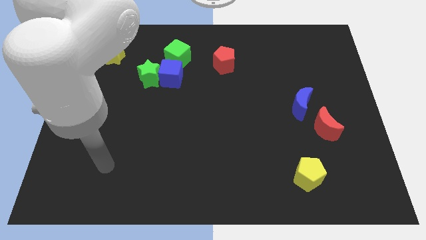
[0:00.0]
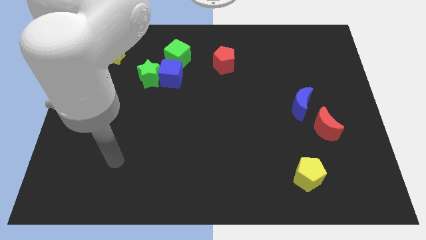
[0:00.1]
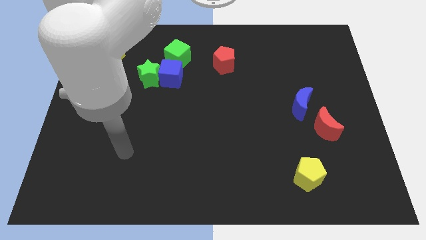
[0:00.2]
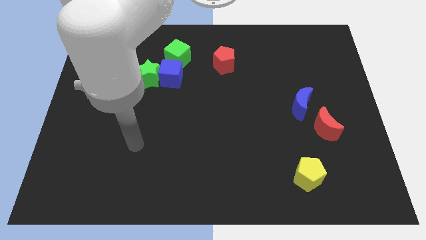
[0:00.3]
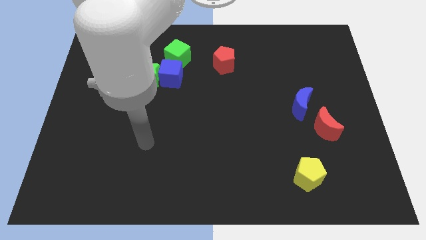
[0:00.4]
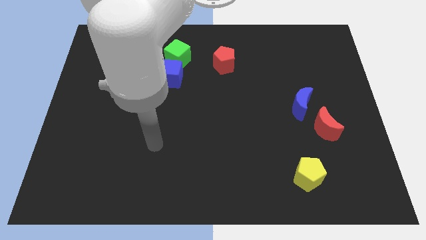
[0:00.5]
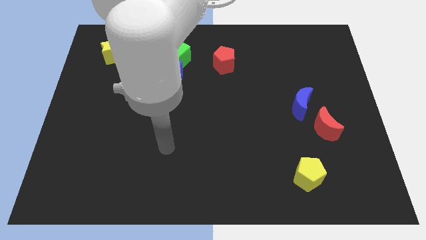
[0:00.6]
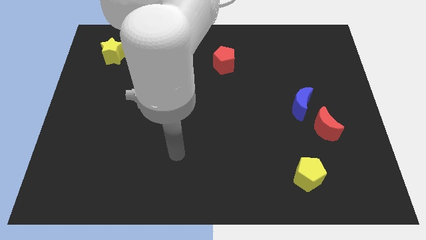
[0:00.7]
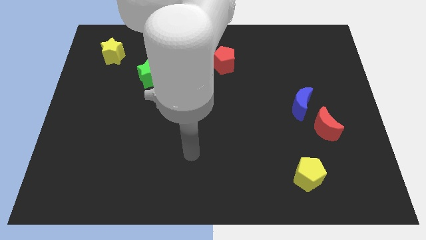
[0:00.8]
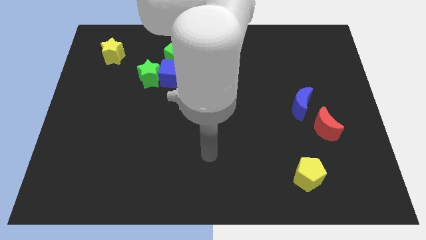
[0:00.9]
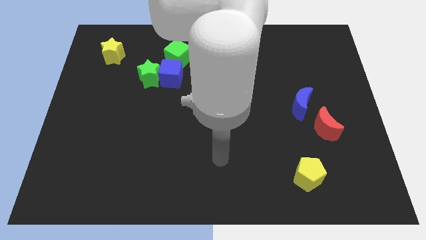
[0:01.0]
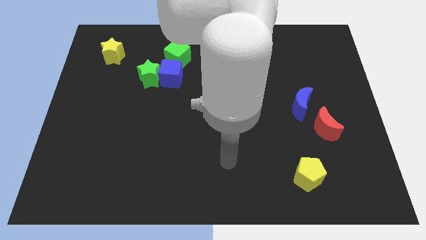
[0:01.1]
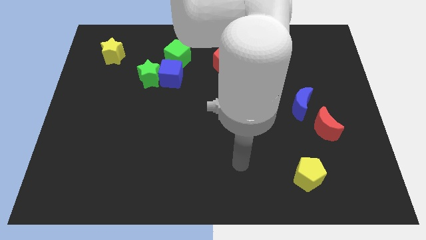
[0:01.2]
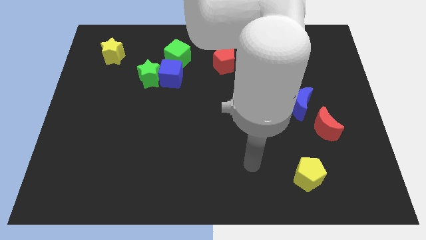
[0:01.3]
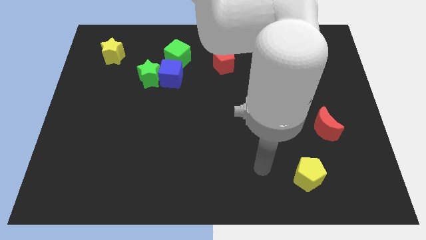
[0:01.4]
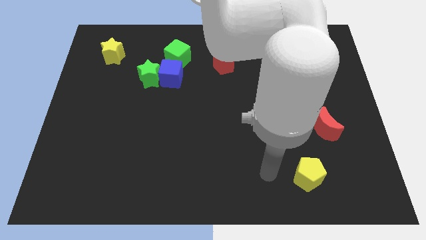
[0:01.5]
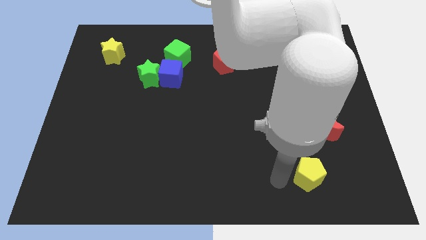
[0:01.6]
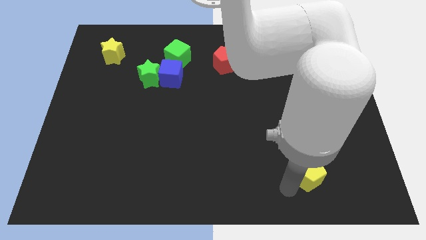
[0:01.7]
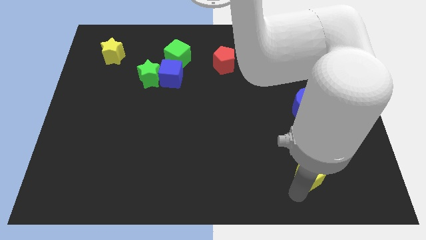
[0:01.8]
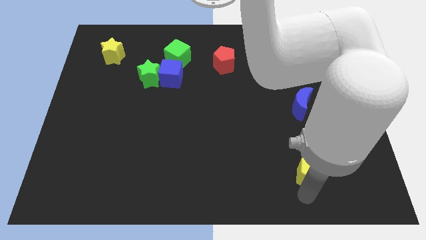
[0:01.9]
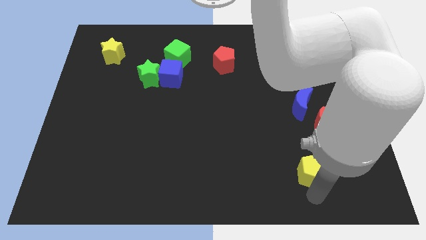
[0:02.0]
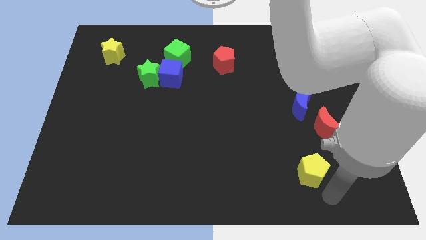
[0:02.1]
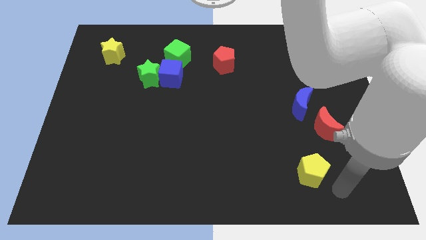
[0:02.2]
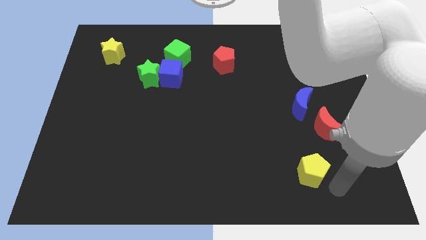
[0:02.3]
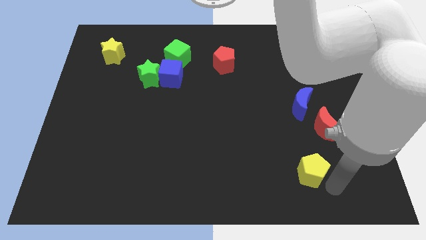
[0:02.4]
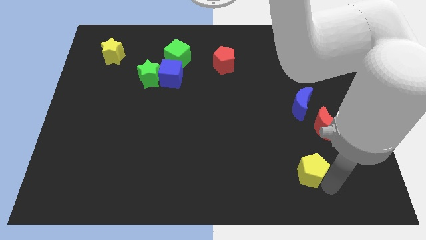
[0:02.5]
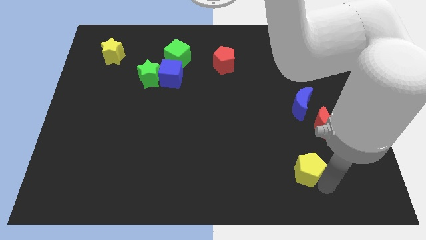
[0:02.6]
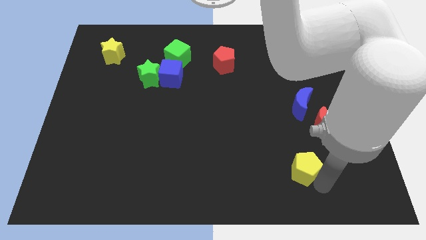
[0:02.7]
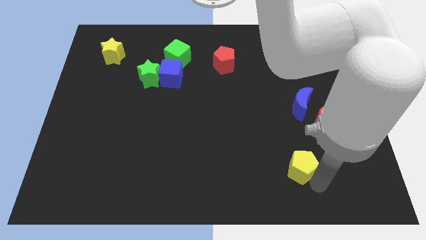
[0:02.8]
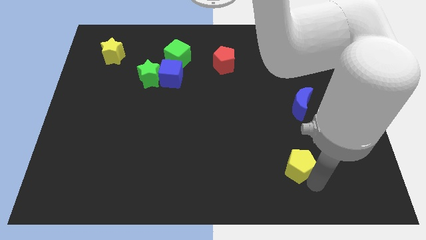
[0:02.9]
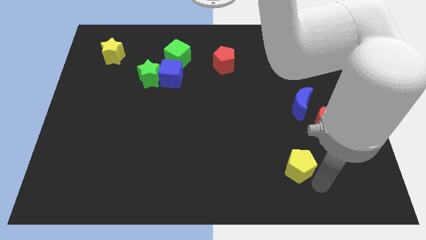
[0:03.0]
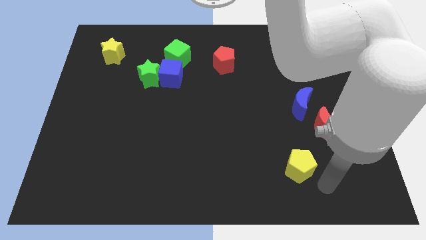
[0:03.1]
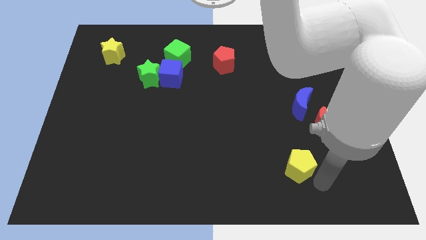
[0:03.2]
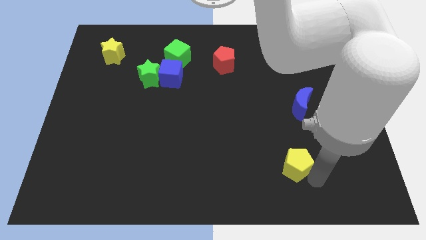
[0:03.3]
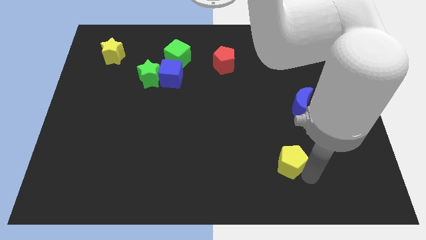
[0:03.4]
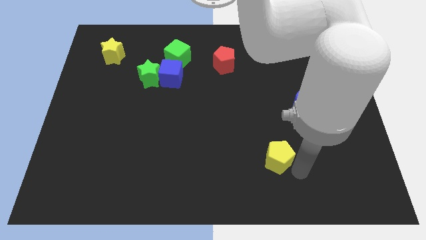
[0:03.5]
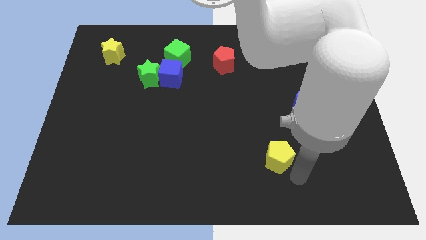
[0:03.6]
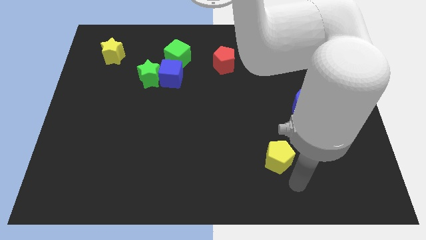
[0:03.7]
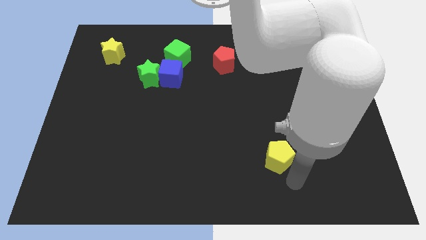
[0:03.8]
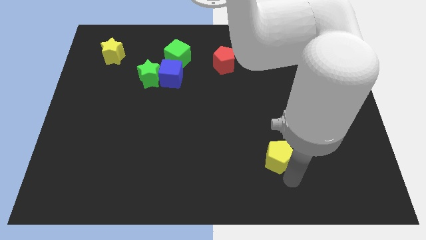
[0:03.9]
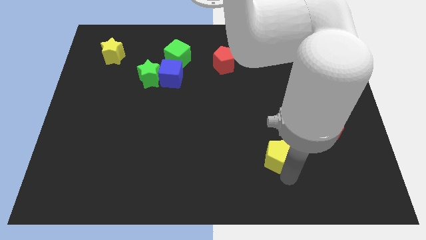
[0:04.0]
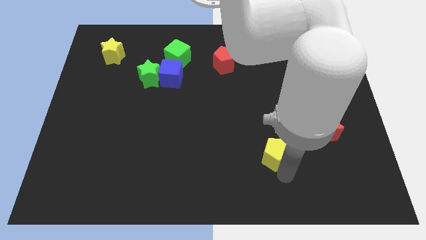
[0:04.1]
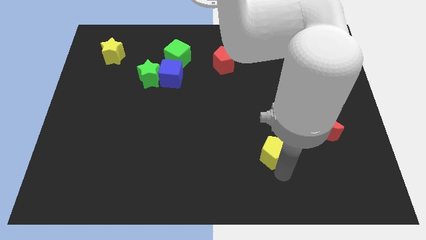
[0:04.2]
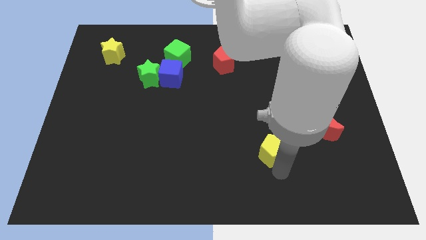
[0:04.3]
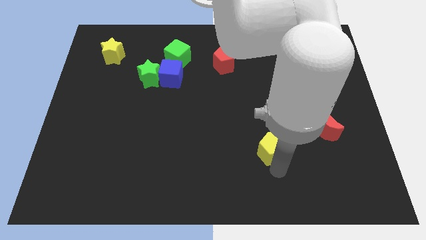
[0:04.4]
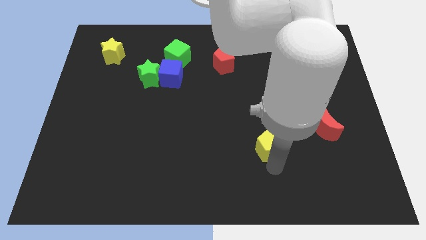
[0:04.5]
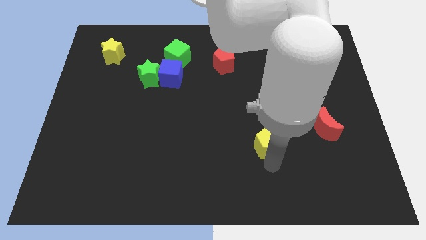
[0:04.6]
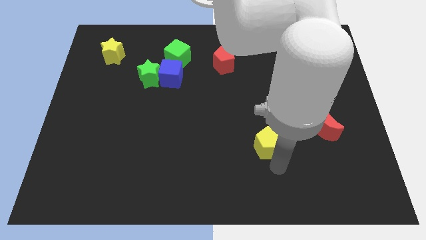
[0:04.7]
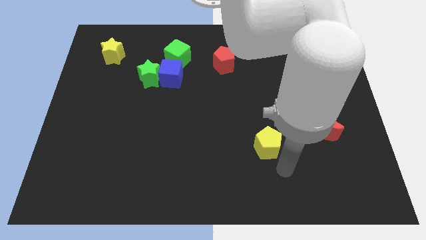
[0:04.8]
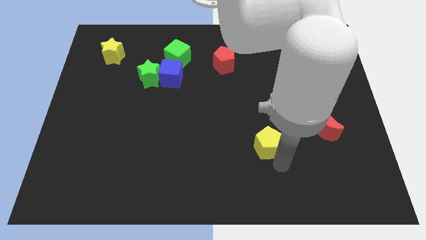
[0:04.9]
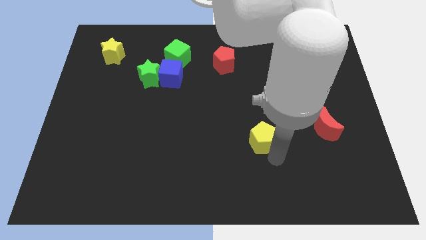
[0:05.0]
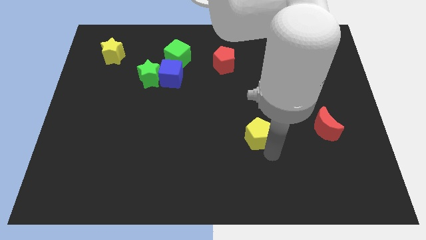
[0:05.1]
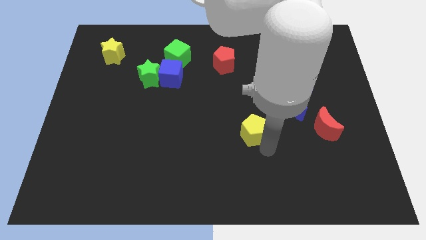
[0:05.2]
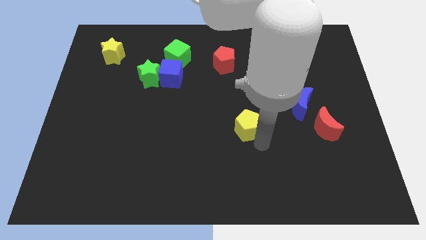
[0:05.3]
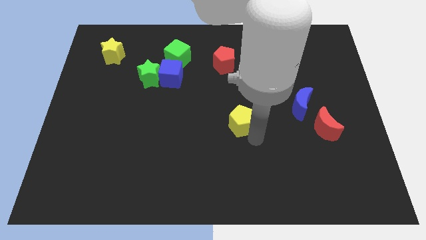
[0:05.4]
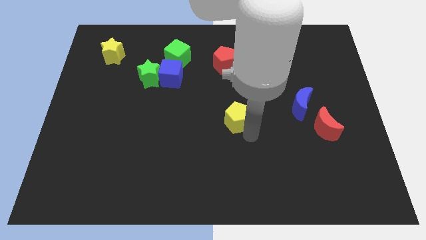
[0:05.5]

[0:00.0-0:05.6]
slide the yellow pentagon up and then left

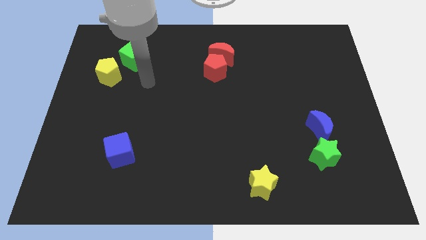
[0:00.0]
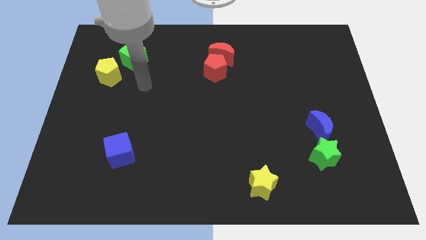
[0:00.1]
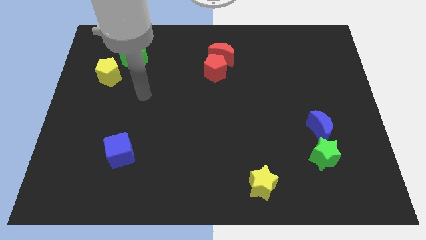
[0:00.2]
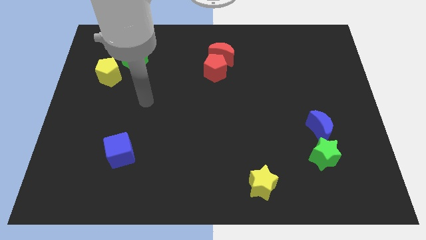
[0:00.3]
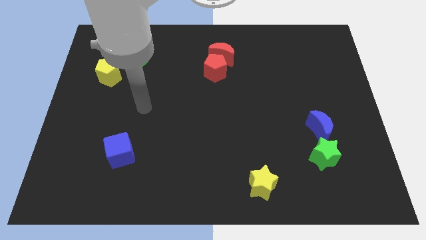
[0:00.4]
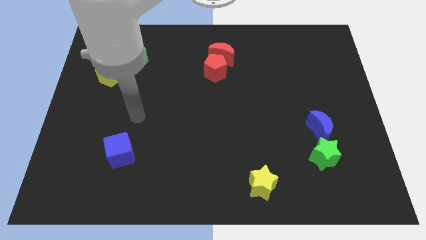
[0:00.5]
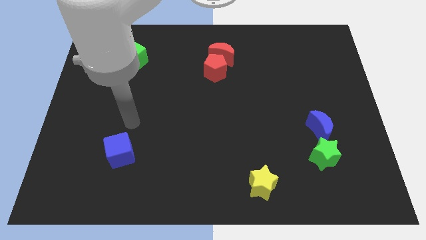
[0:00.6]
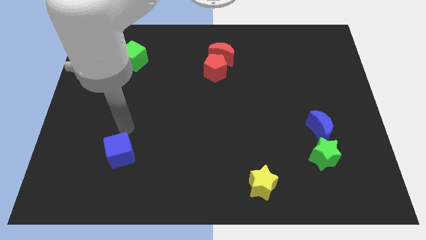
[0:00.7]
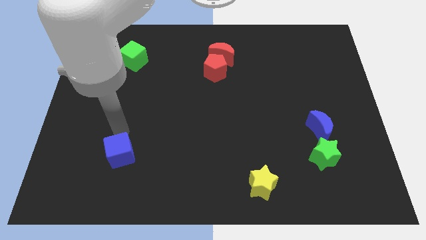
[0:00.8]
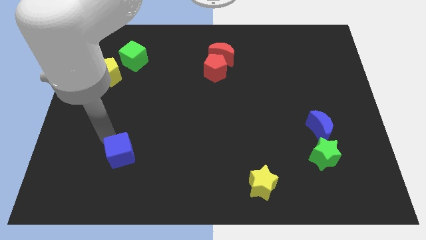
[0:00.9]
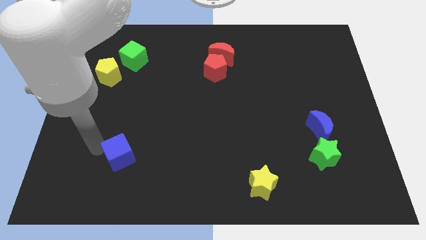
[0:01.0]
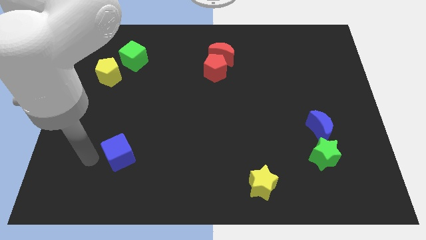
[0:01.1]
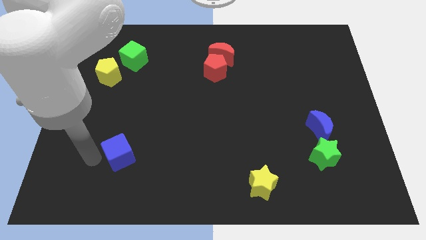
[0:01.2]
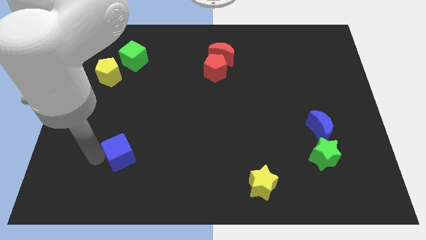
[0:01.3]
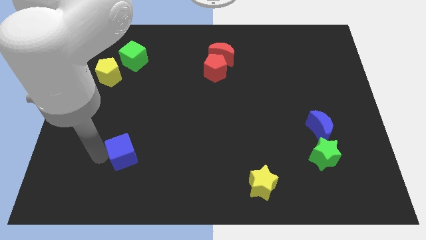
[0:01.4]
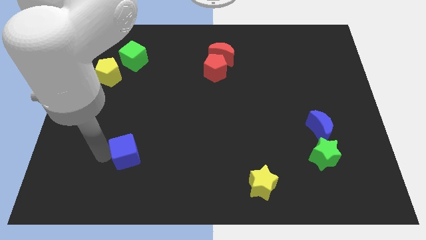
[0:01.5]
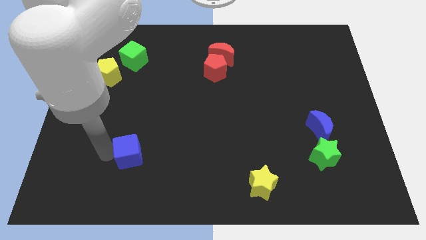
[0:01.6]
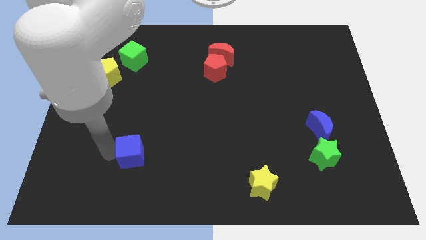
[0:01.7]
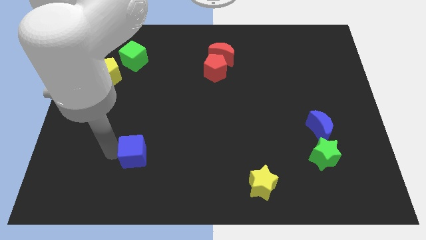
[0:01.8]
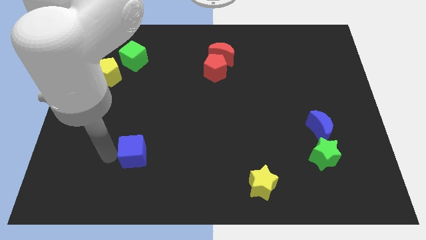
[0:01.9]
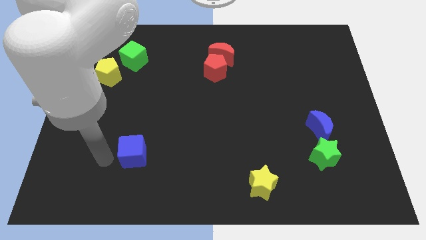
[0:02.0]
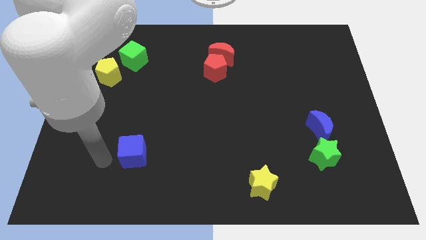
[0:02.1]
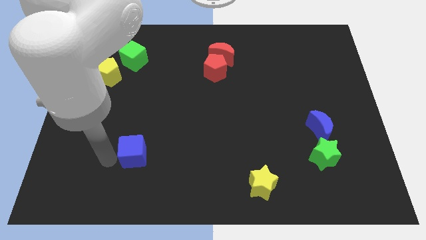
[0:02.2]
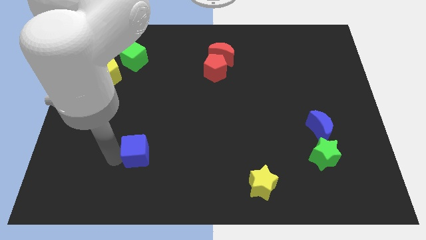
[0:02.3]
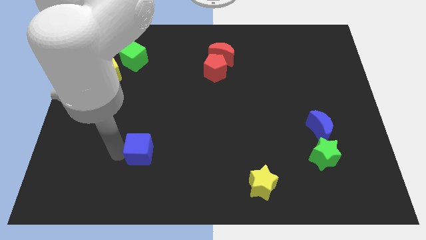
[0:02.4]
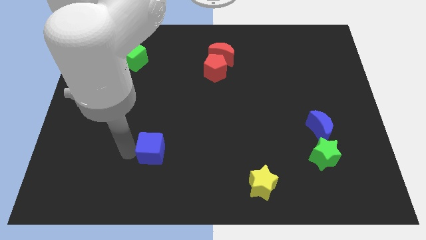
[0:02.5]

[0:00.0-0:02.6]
push the blue cube a little bit to the right
